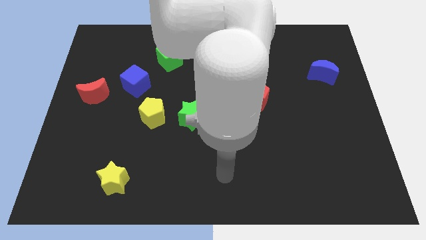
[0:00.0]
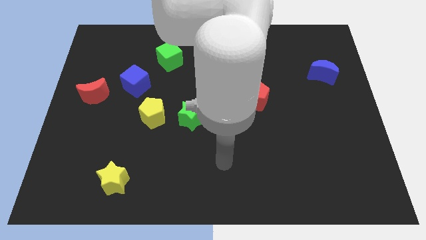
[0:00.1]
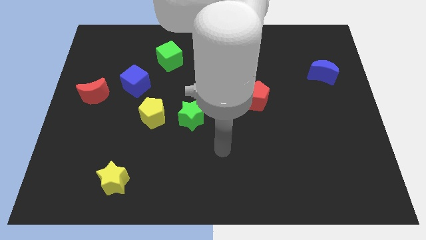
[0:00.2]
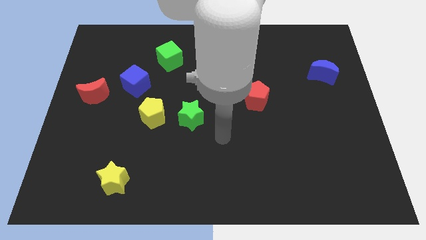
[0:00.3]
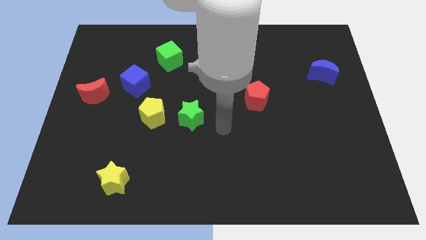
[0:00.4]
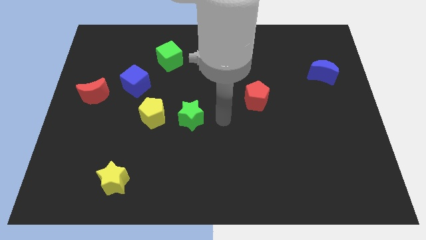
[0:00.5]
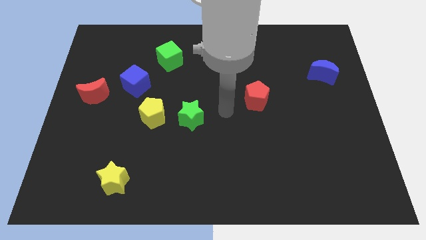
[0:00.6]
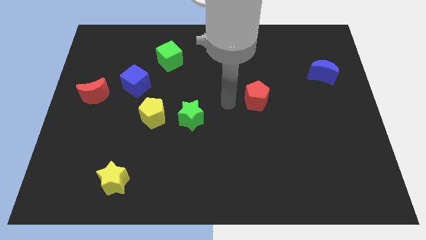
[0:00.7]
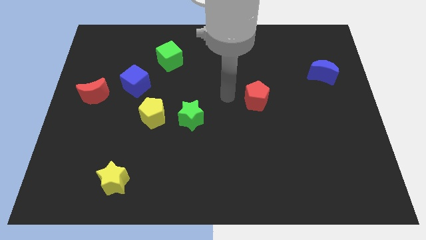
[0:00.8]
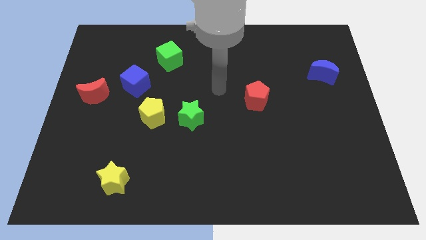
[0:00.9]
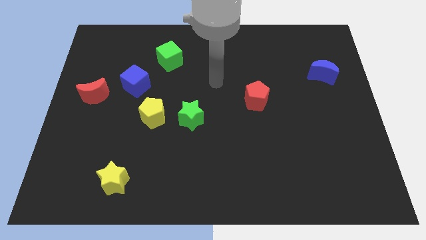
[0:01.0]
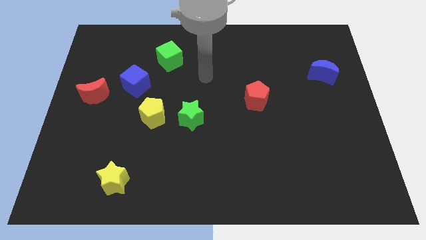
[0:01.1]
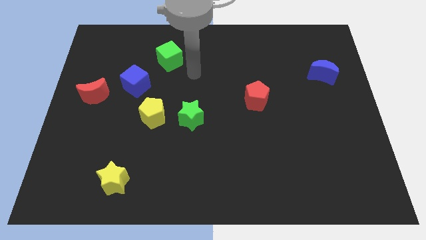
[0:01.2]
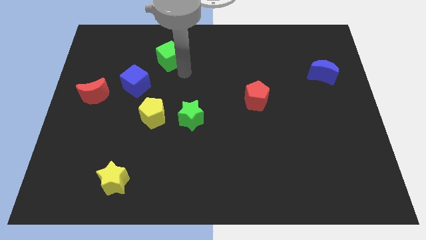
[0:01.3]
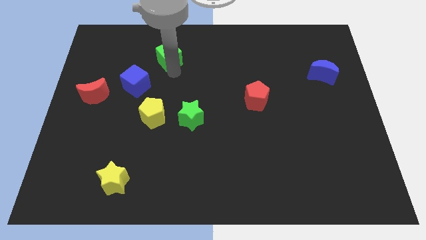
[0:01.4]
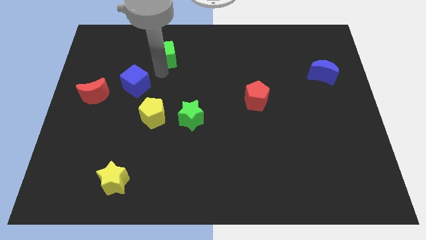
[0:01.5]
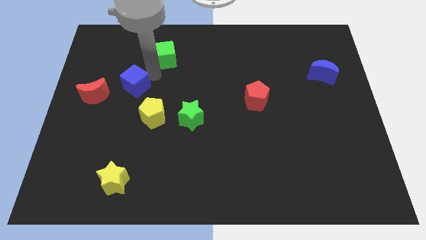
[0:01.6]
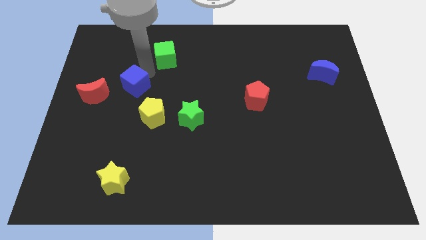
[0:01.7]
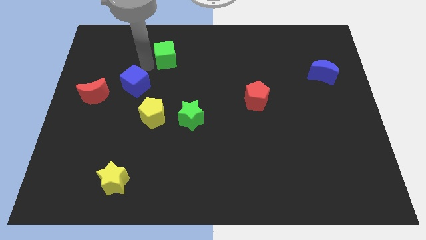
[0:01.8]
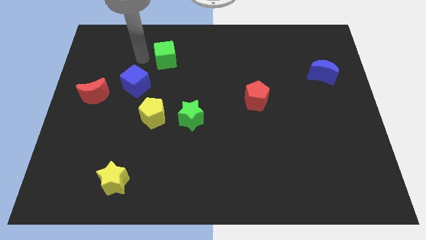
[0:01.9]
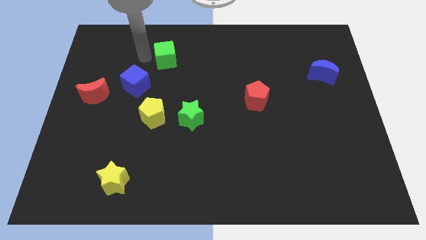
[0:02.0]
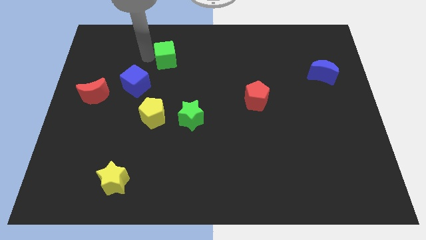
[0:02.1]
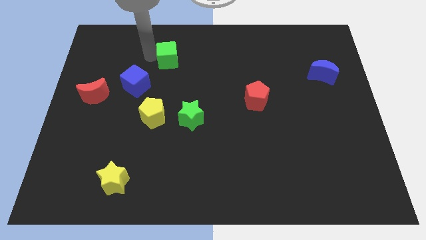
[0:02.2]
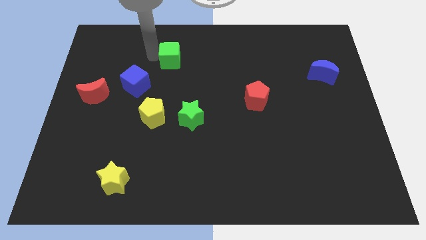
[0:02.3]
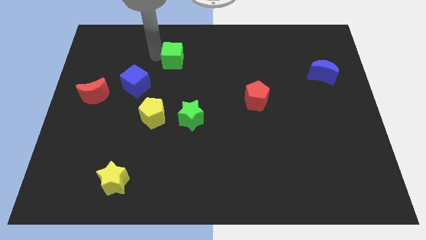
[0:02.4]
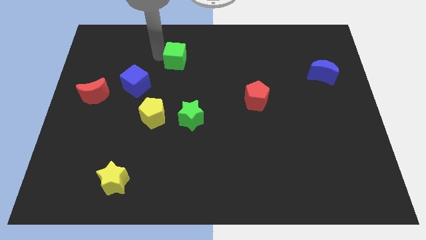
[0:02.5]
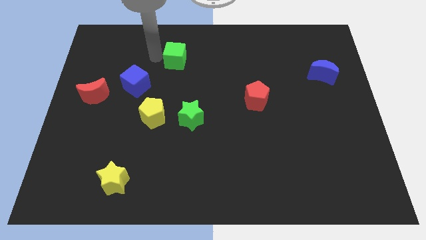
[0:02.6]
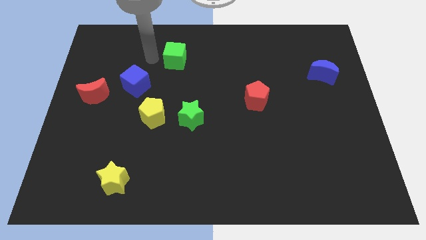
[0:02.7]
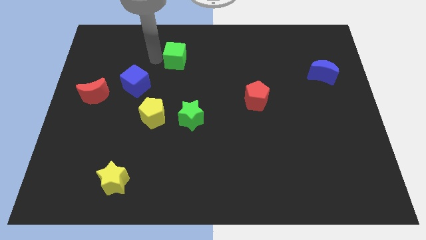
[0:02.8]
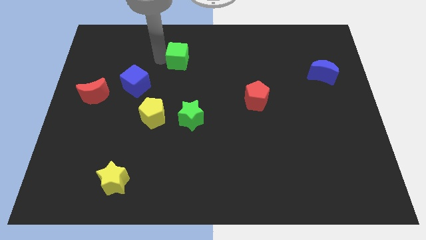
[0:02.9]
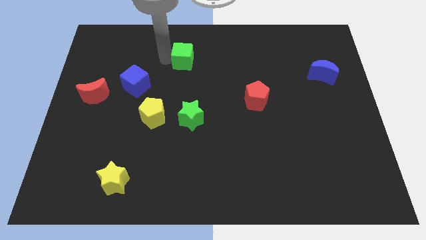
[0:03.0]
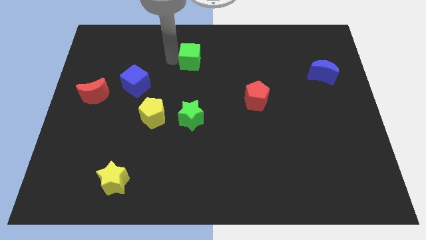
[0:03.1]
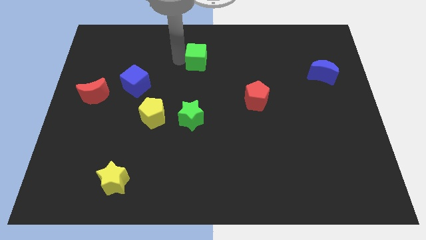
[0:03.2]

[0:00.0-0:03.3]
push the green cube right slightly

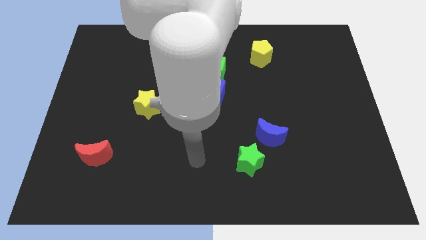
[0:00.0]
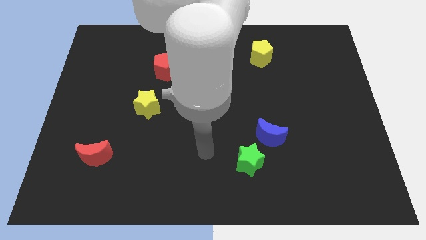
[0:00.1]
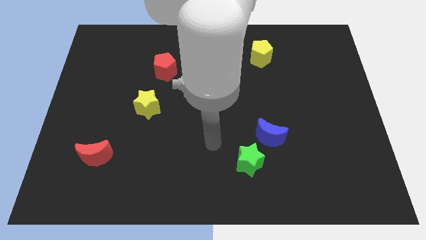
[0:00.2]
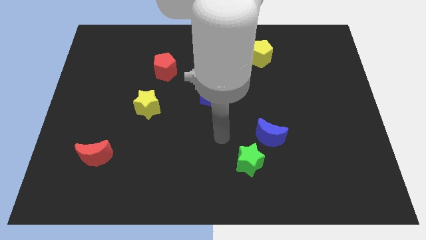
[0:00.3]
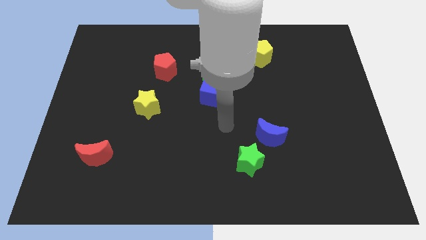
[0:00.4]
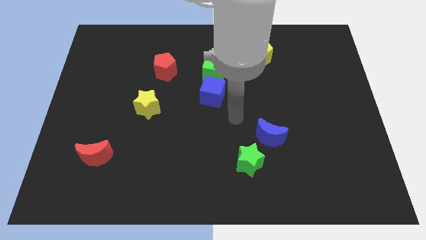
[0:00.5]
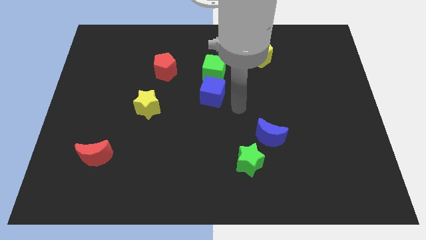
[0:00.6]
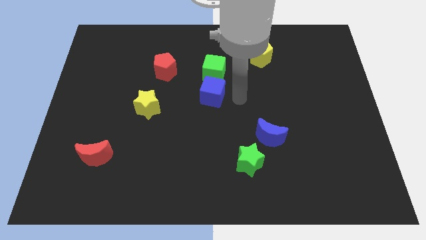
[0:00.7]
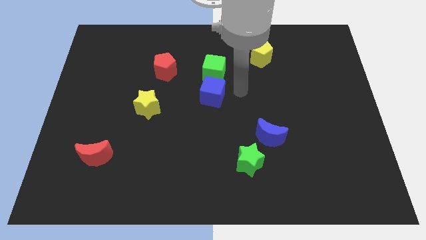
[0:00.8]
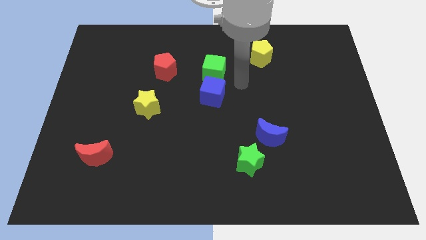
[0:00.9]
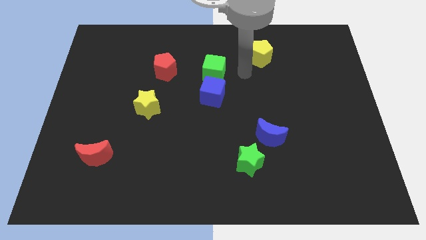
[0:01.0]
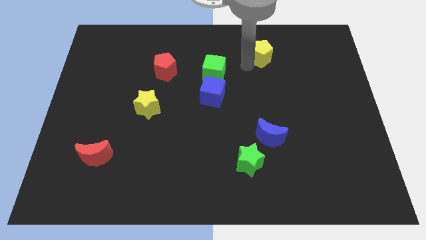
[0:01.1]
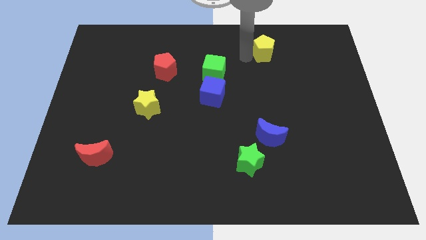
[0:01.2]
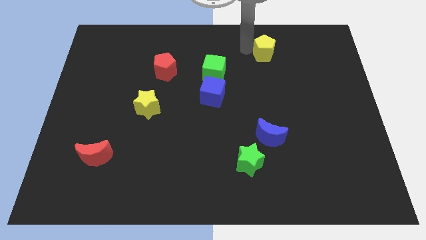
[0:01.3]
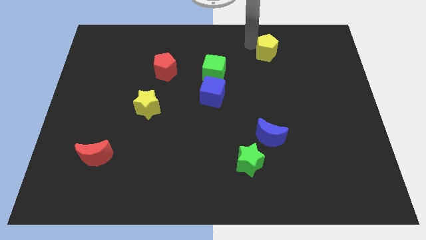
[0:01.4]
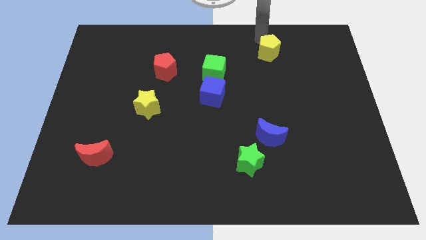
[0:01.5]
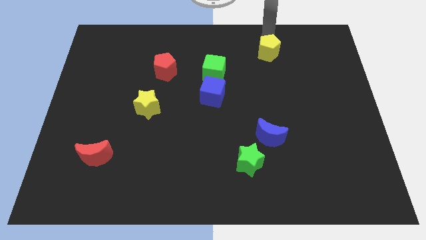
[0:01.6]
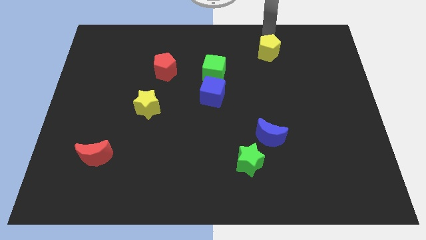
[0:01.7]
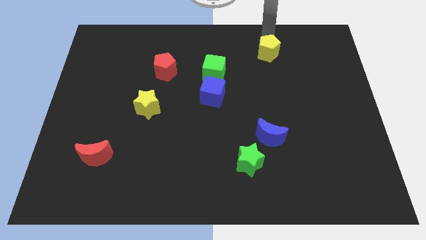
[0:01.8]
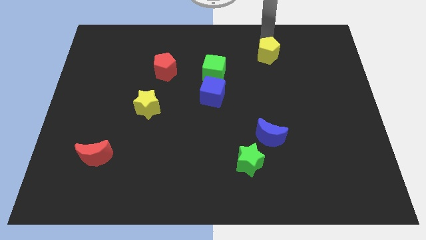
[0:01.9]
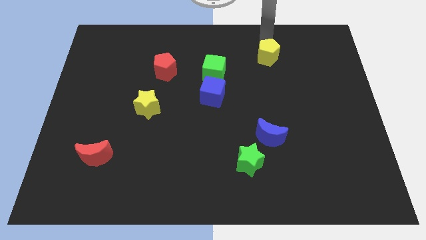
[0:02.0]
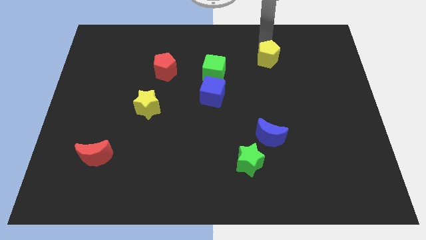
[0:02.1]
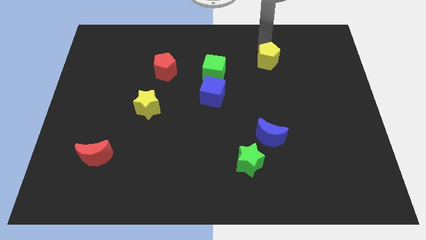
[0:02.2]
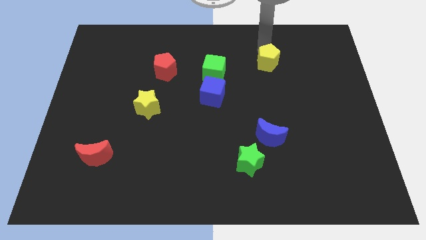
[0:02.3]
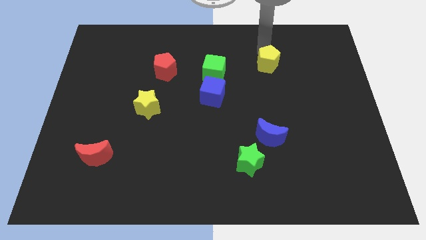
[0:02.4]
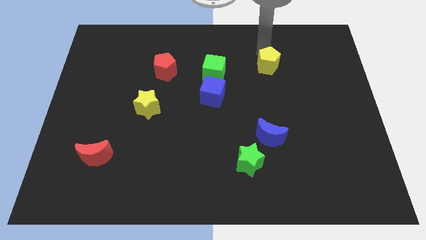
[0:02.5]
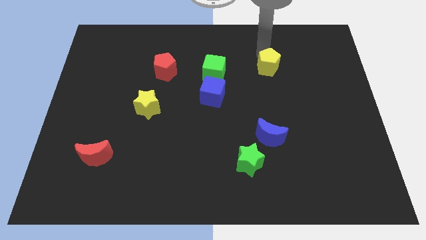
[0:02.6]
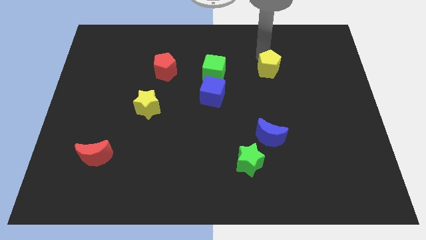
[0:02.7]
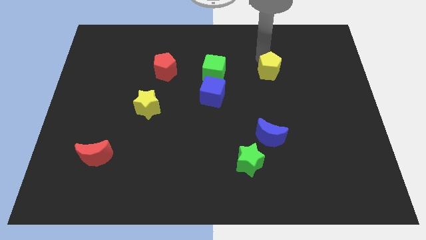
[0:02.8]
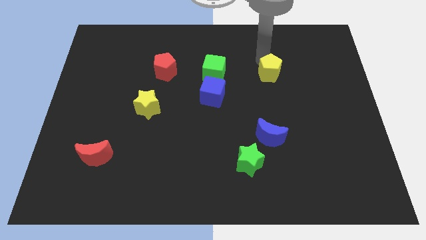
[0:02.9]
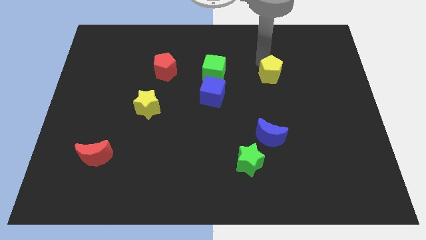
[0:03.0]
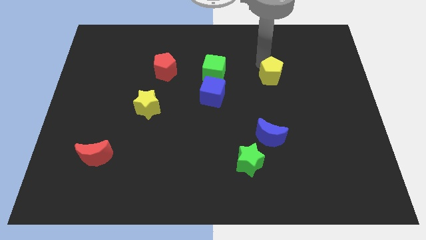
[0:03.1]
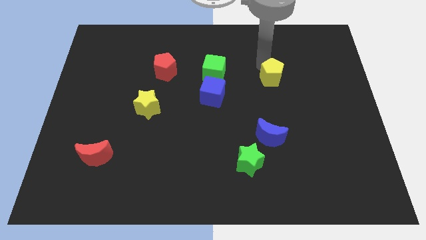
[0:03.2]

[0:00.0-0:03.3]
slightly slide the yellow pentagon downwards

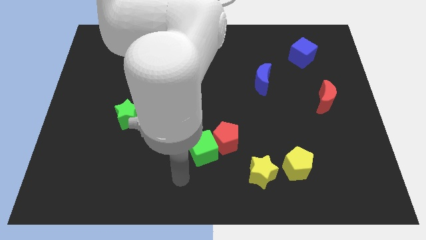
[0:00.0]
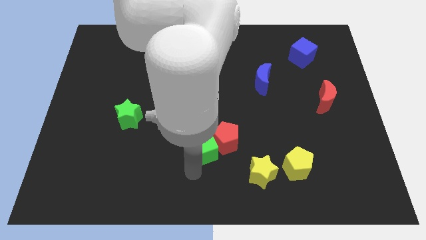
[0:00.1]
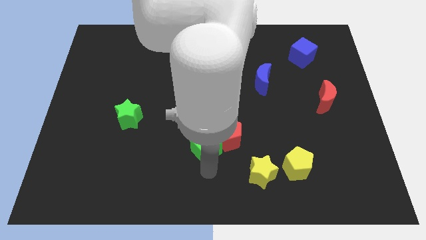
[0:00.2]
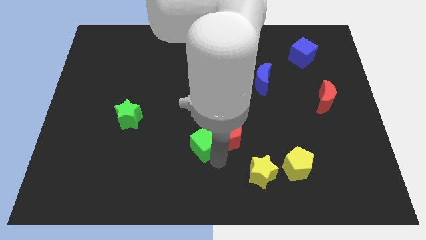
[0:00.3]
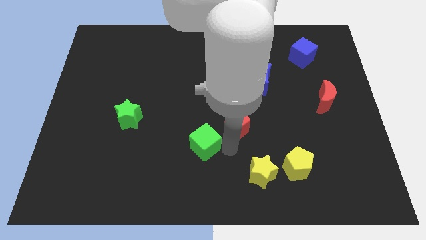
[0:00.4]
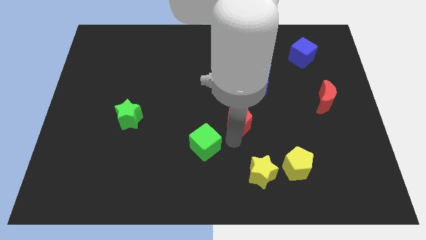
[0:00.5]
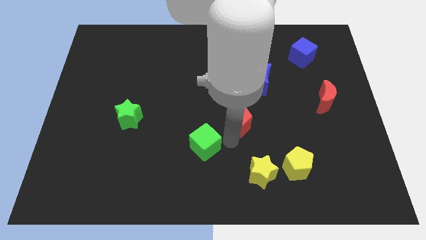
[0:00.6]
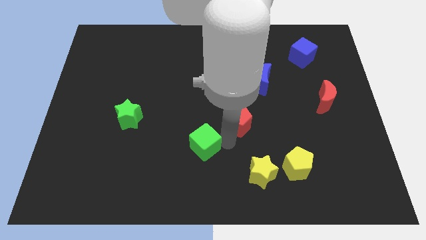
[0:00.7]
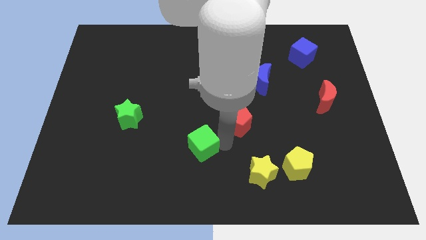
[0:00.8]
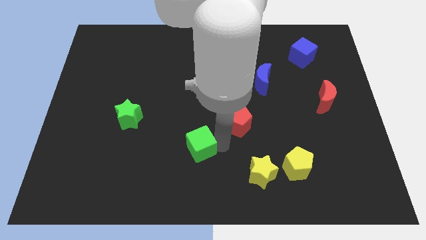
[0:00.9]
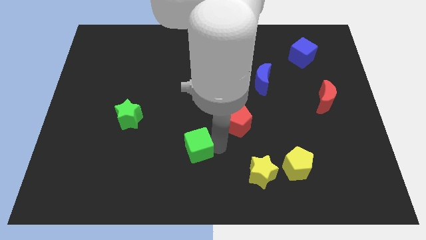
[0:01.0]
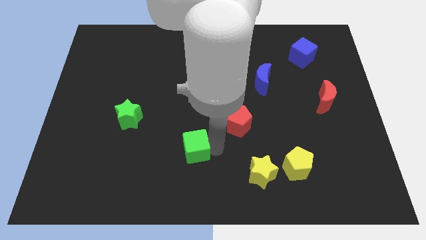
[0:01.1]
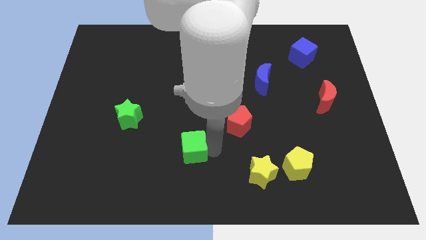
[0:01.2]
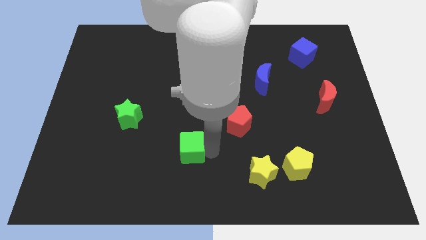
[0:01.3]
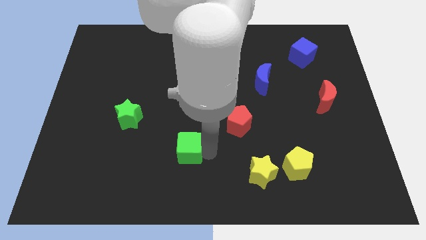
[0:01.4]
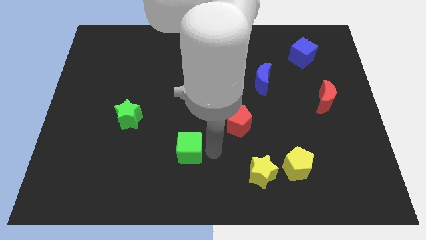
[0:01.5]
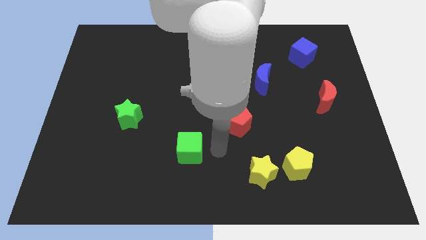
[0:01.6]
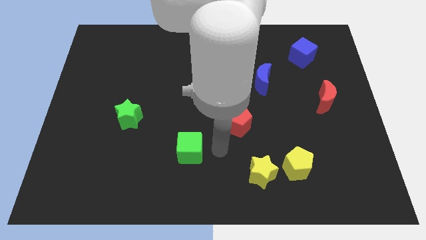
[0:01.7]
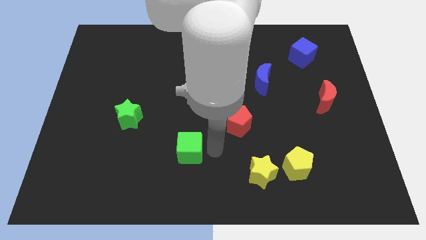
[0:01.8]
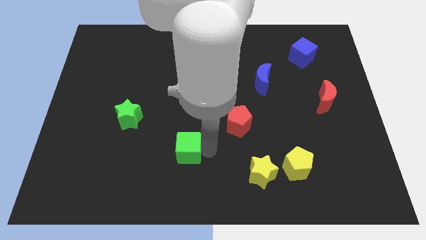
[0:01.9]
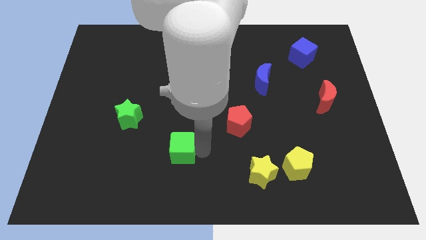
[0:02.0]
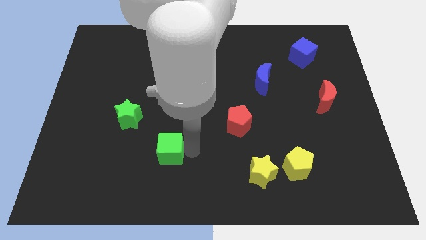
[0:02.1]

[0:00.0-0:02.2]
move the green cube slightly left
